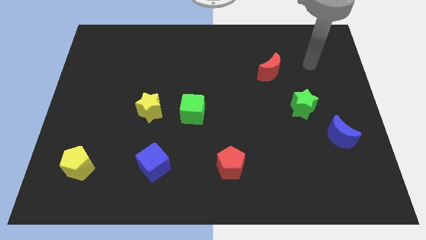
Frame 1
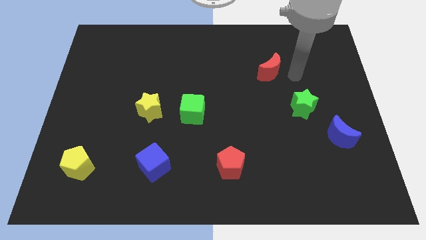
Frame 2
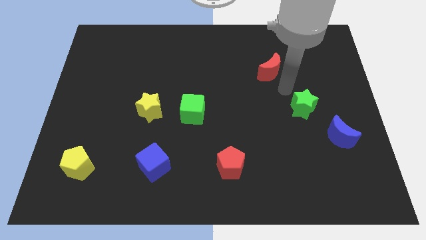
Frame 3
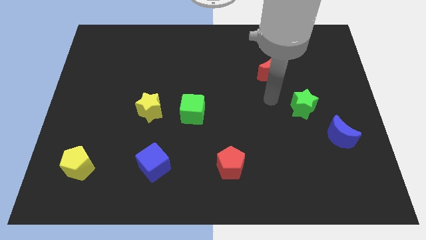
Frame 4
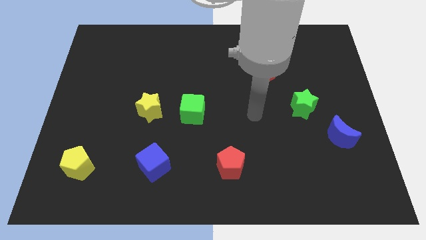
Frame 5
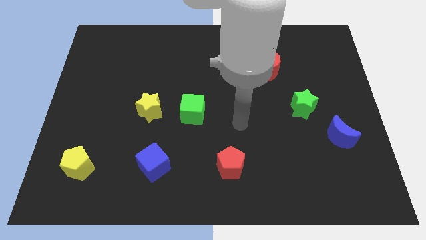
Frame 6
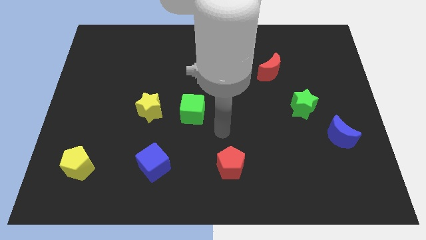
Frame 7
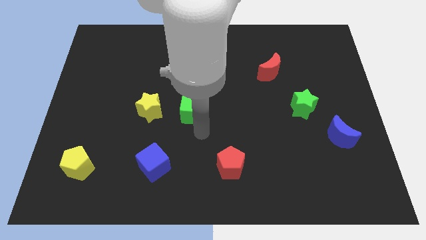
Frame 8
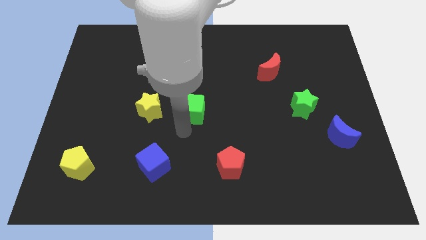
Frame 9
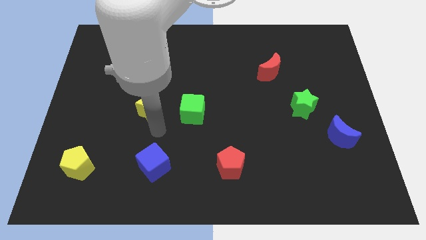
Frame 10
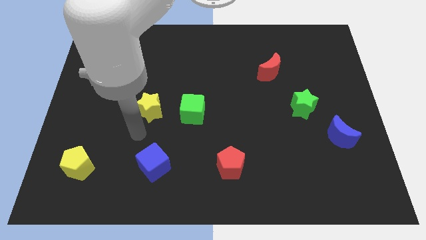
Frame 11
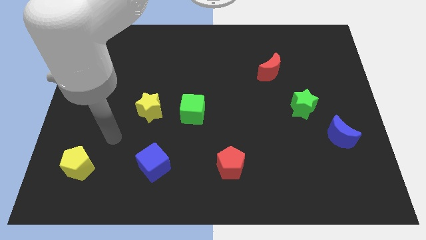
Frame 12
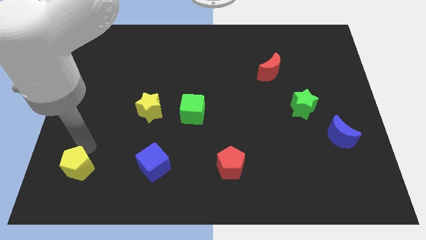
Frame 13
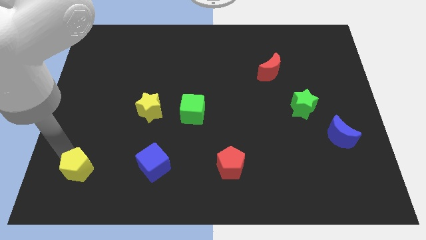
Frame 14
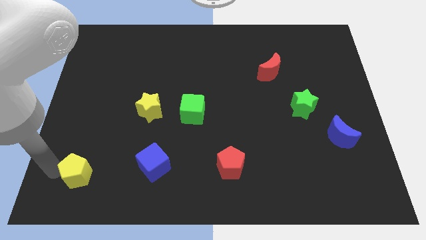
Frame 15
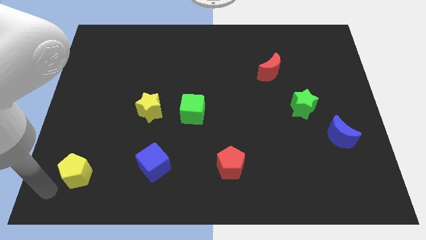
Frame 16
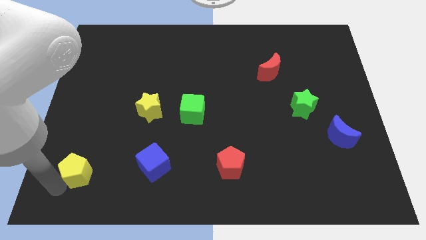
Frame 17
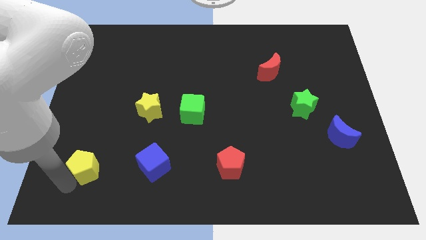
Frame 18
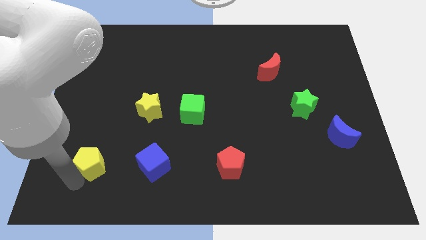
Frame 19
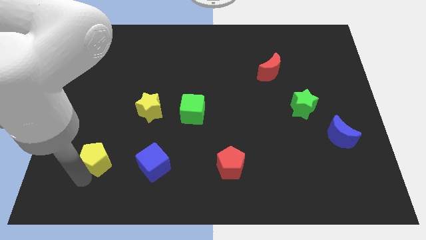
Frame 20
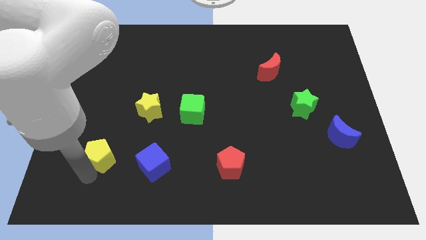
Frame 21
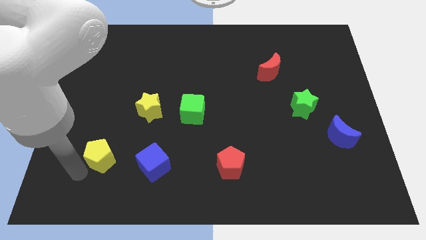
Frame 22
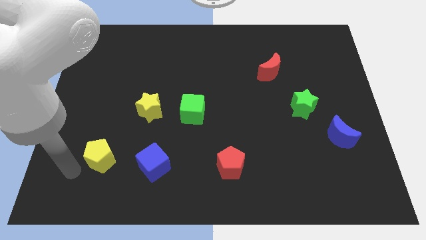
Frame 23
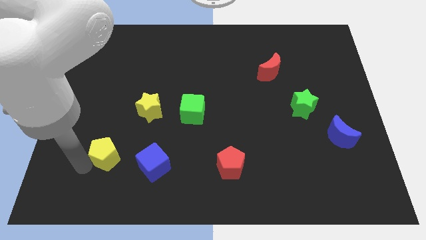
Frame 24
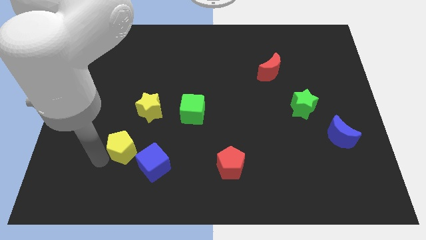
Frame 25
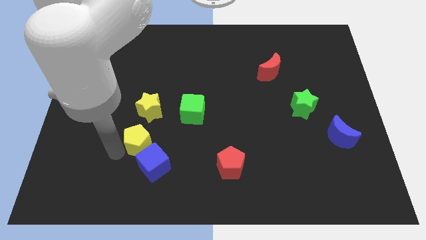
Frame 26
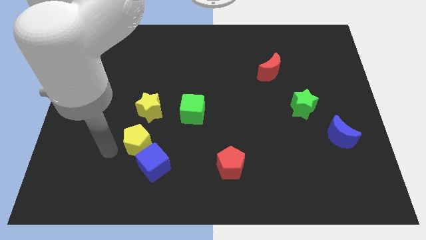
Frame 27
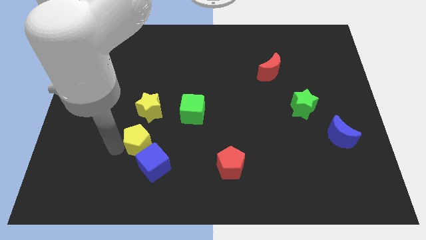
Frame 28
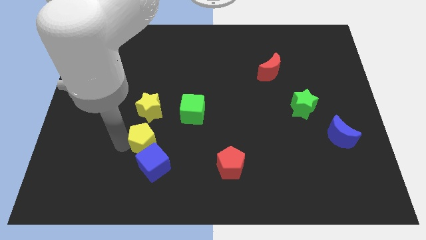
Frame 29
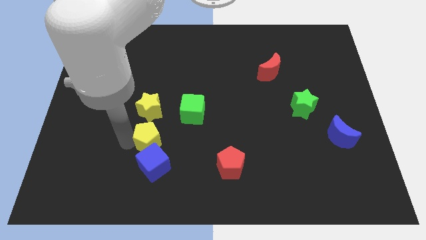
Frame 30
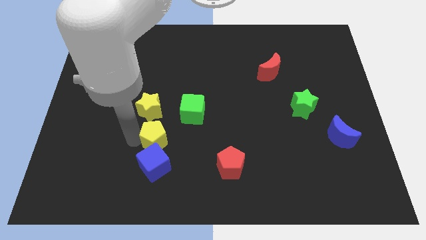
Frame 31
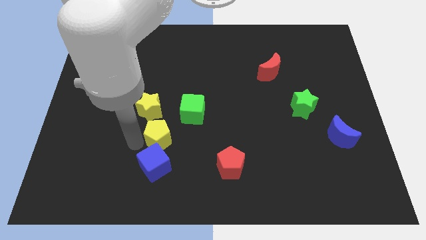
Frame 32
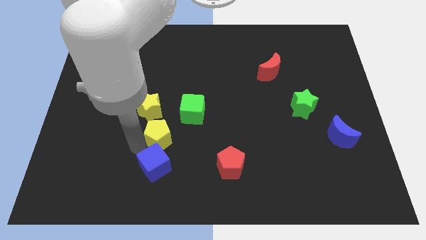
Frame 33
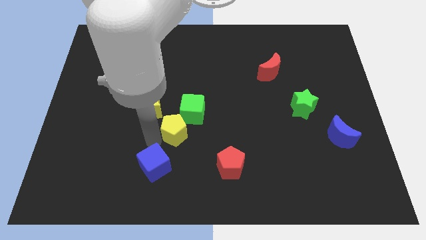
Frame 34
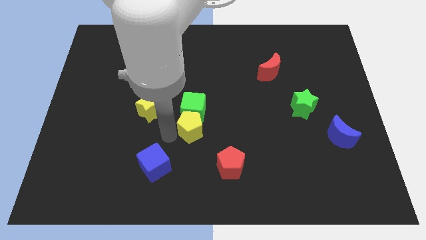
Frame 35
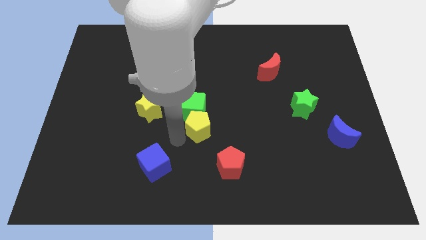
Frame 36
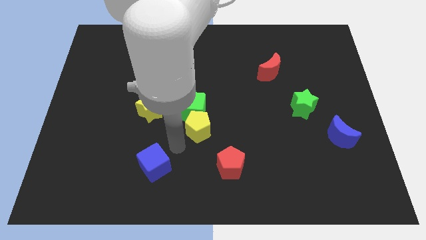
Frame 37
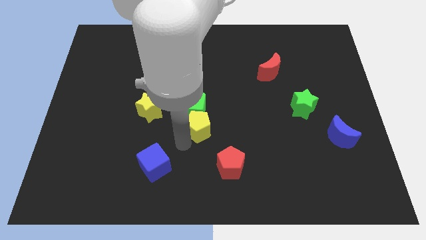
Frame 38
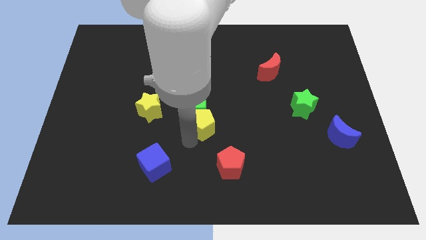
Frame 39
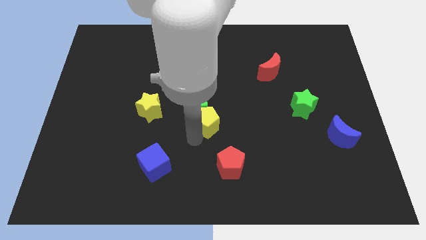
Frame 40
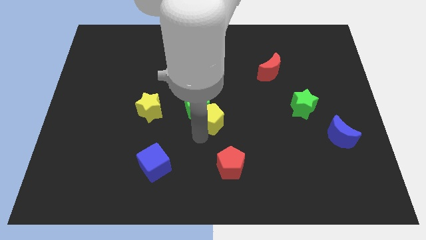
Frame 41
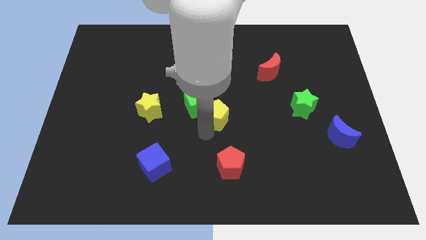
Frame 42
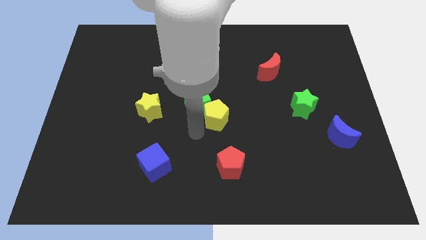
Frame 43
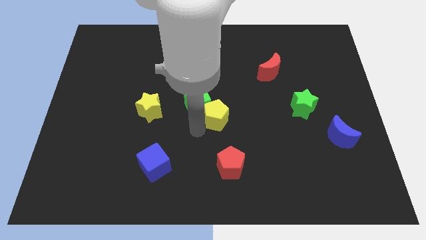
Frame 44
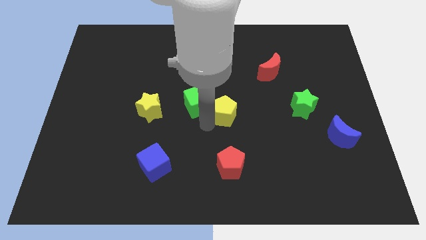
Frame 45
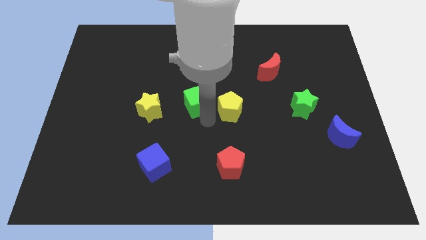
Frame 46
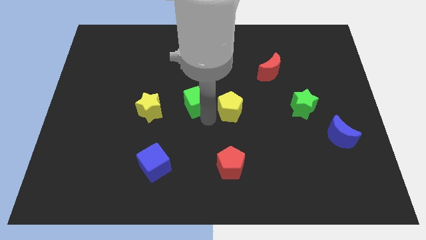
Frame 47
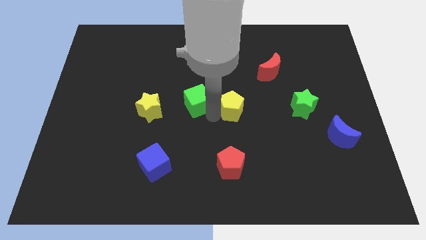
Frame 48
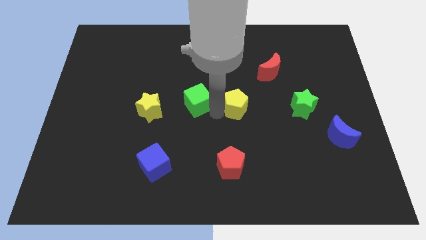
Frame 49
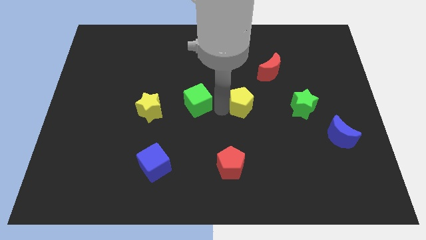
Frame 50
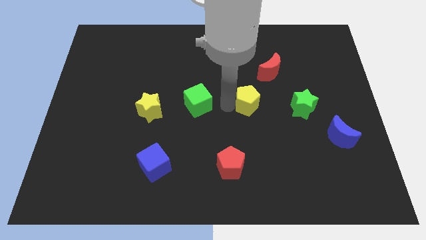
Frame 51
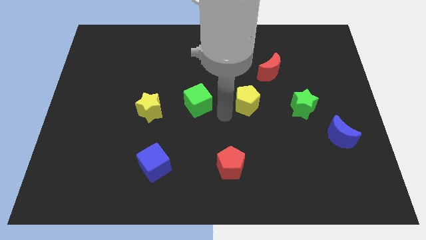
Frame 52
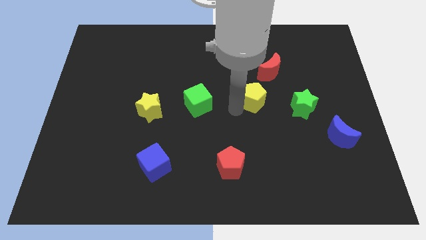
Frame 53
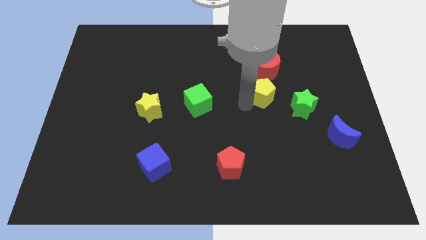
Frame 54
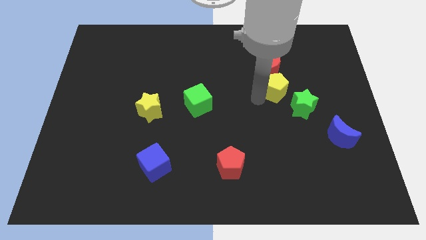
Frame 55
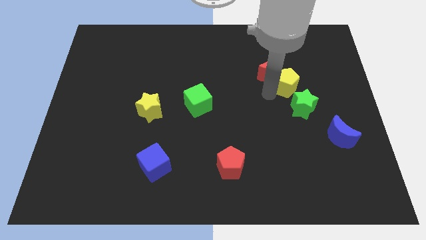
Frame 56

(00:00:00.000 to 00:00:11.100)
push the yellow pentagon right of the red moon

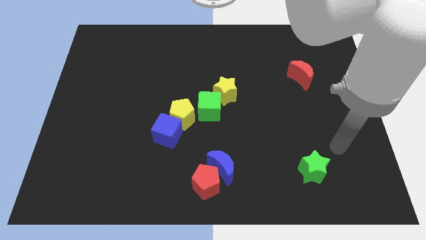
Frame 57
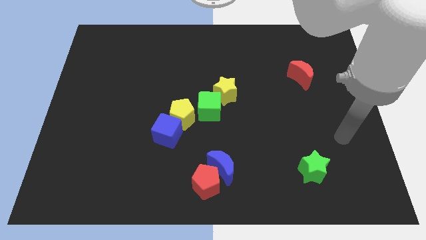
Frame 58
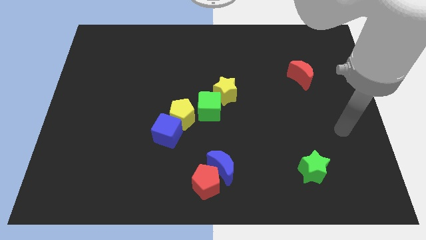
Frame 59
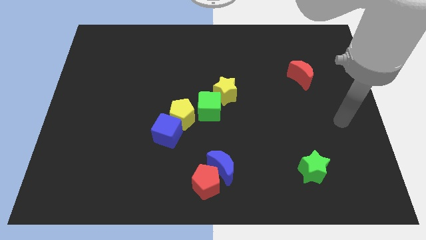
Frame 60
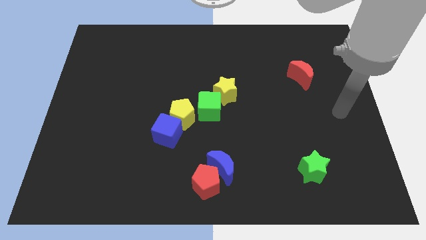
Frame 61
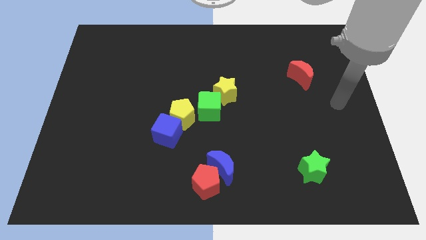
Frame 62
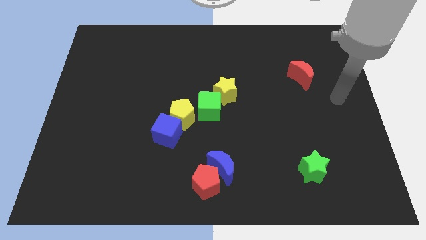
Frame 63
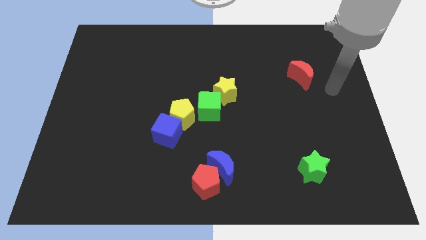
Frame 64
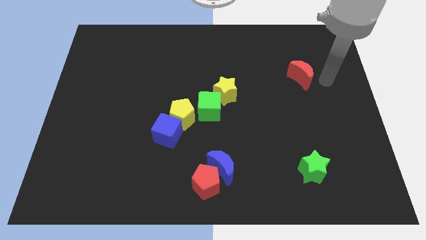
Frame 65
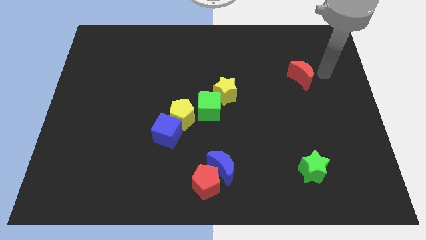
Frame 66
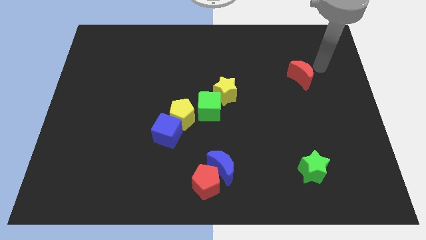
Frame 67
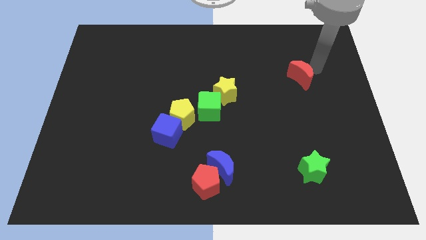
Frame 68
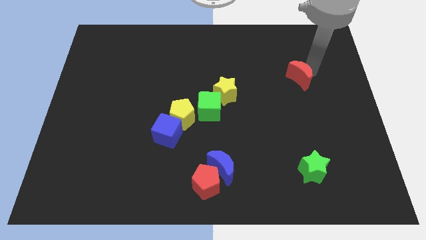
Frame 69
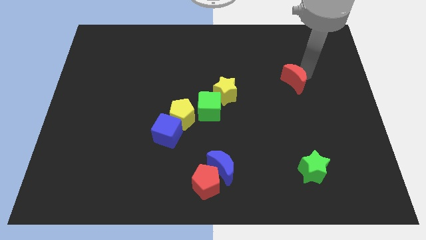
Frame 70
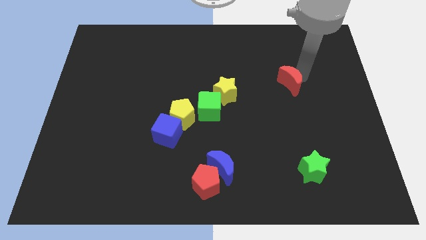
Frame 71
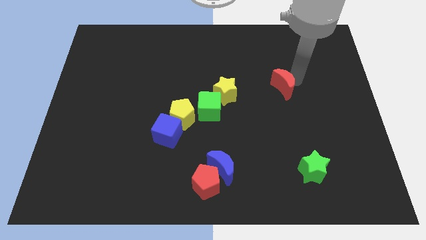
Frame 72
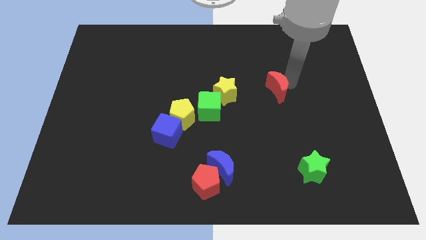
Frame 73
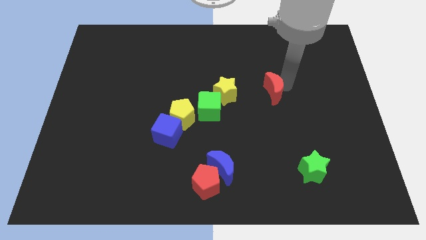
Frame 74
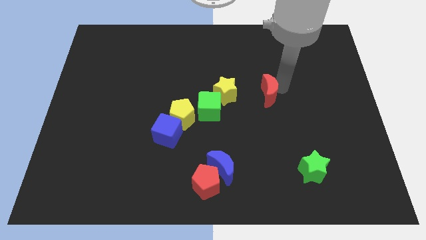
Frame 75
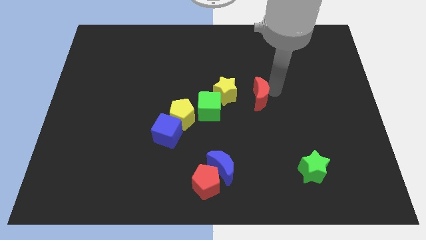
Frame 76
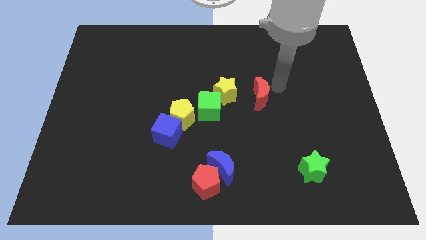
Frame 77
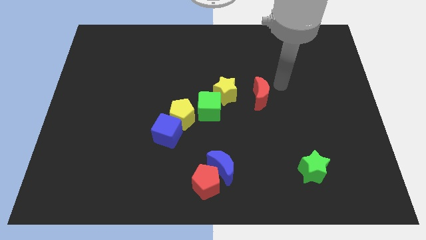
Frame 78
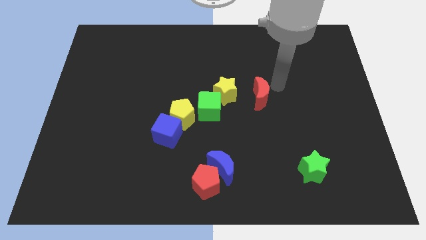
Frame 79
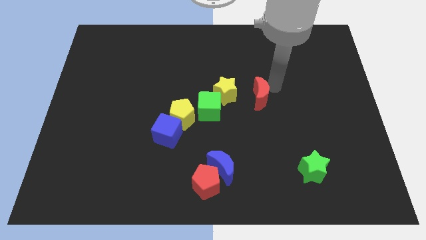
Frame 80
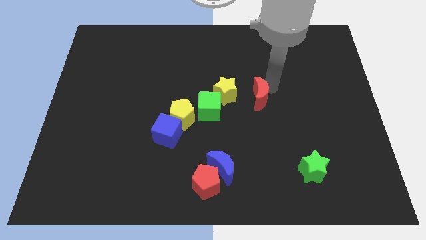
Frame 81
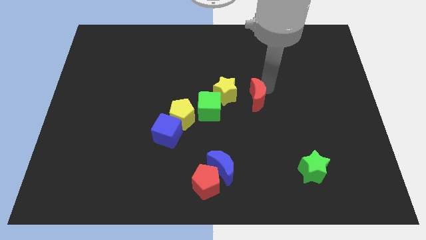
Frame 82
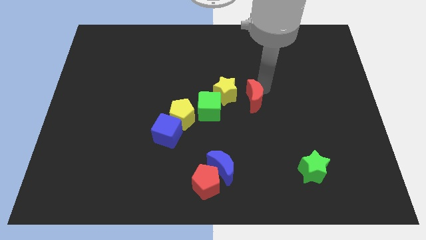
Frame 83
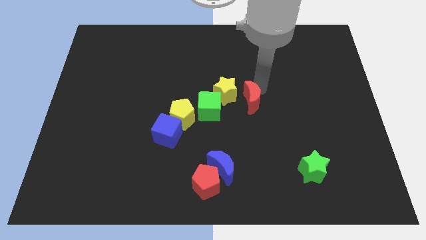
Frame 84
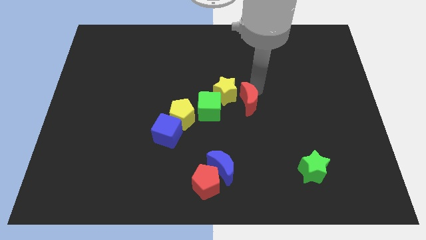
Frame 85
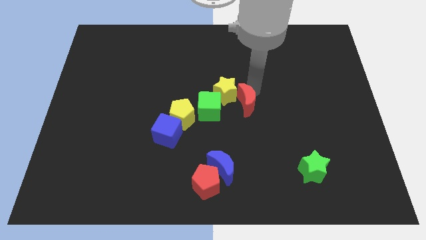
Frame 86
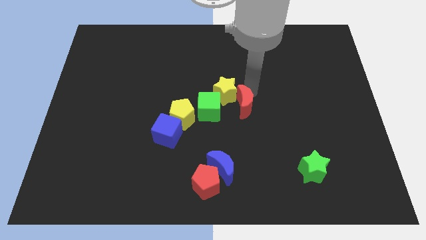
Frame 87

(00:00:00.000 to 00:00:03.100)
move the red moon right of the yellow pentagon
